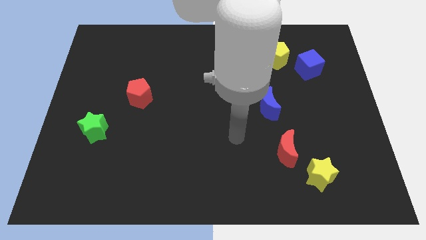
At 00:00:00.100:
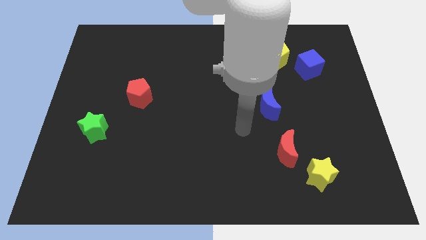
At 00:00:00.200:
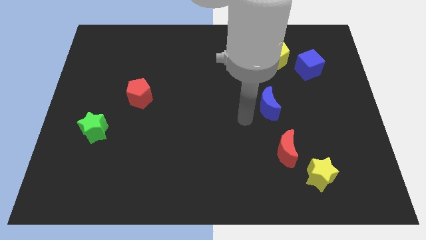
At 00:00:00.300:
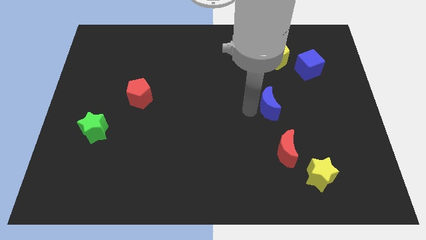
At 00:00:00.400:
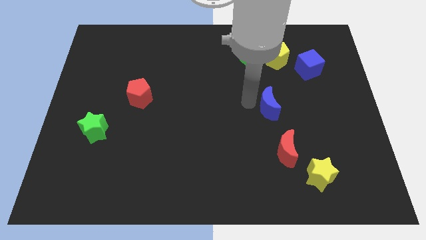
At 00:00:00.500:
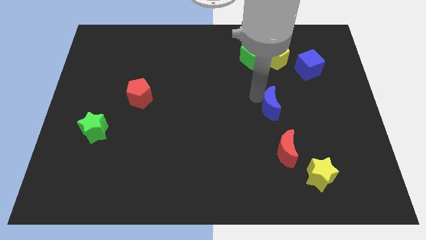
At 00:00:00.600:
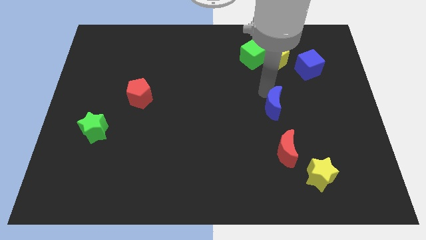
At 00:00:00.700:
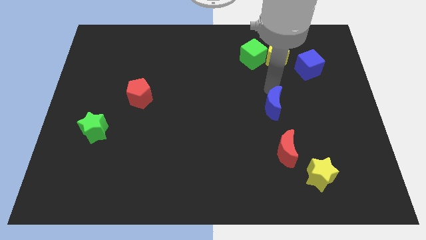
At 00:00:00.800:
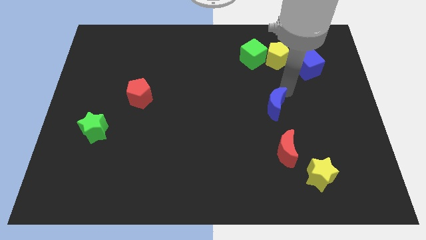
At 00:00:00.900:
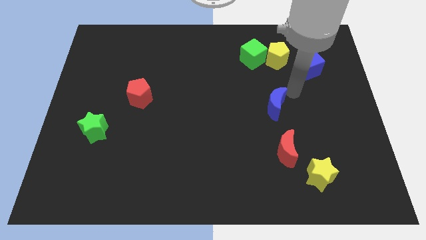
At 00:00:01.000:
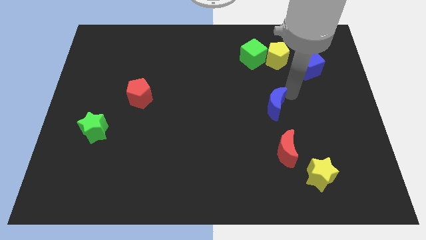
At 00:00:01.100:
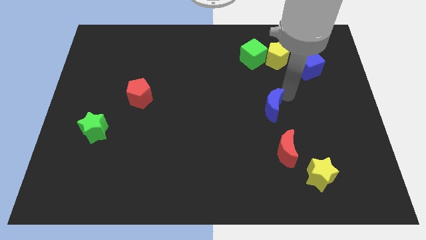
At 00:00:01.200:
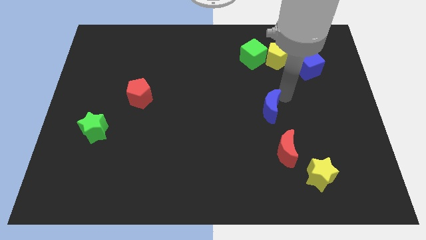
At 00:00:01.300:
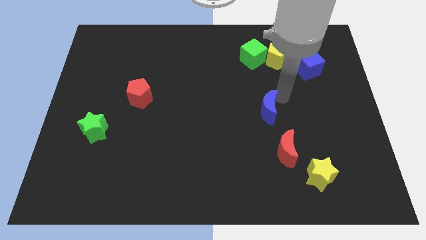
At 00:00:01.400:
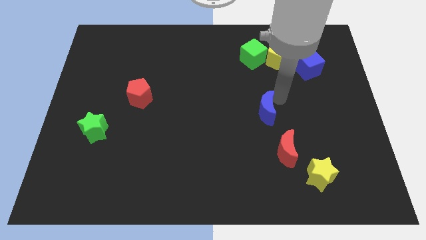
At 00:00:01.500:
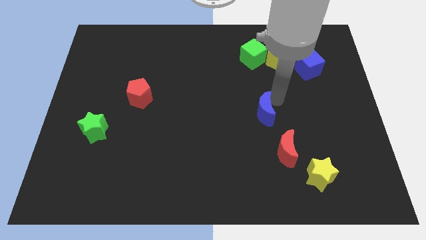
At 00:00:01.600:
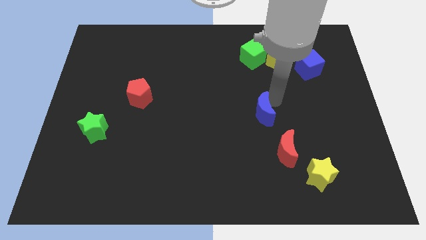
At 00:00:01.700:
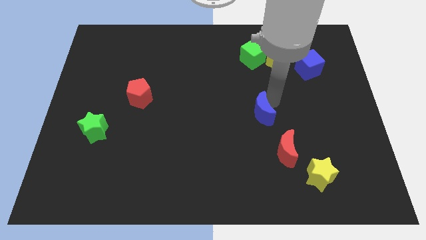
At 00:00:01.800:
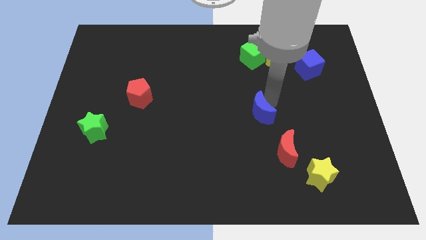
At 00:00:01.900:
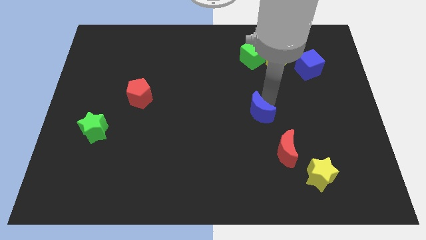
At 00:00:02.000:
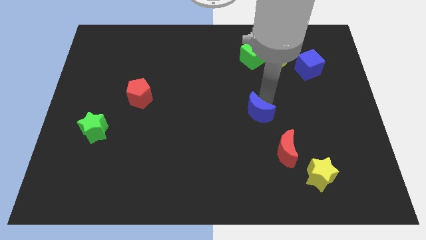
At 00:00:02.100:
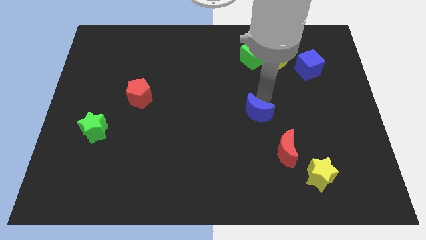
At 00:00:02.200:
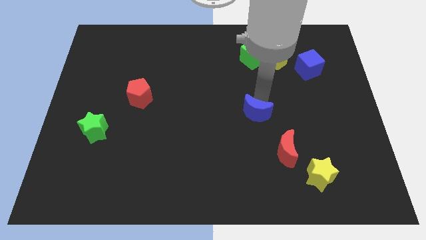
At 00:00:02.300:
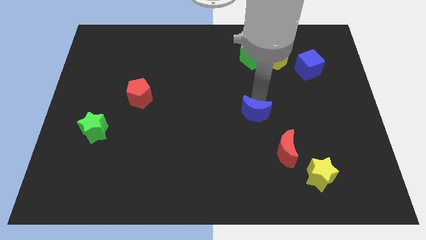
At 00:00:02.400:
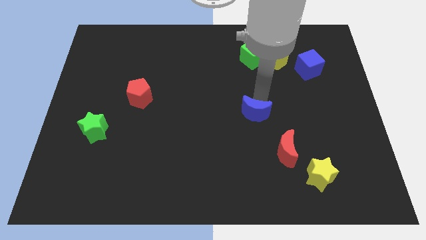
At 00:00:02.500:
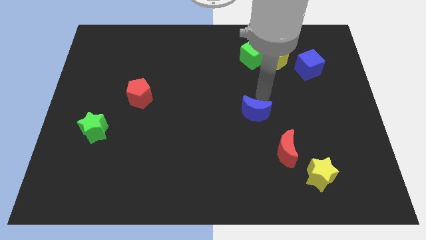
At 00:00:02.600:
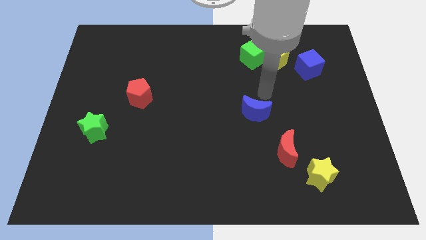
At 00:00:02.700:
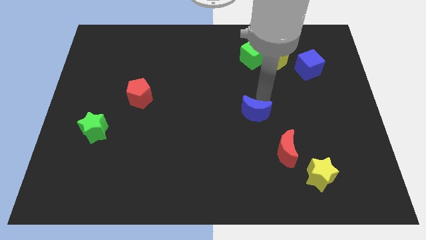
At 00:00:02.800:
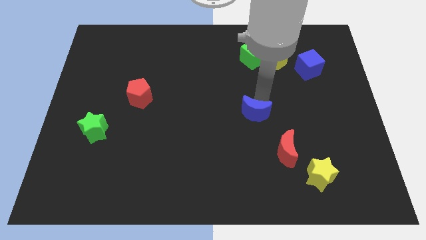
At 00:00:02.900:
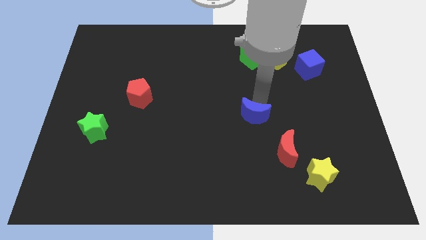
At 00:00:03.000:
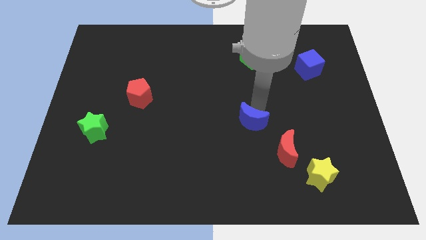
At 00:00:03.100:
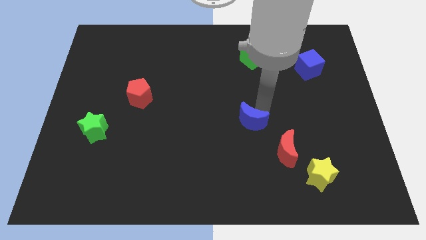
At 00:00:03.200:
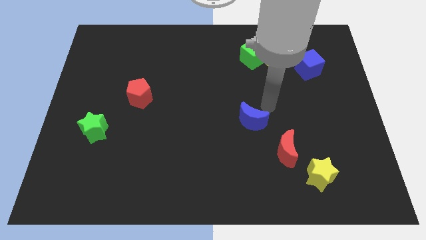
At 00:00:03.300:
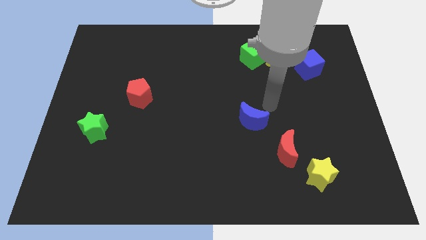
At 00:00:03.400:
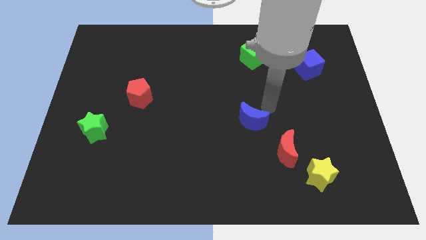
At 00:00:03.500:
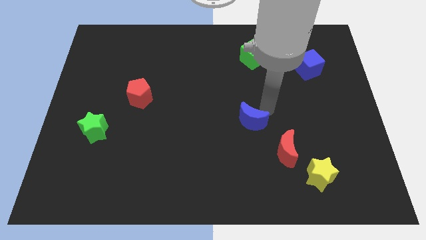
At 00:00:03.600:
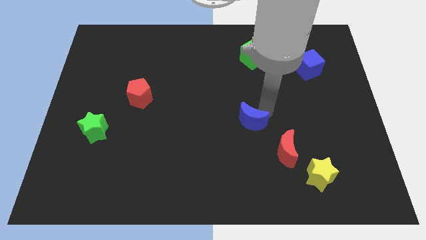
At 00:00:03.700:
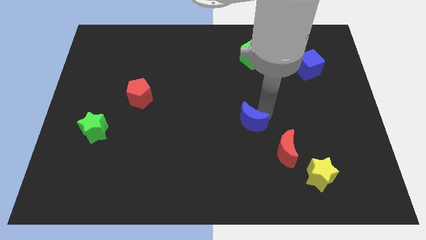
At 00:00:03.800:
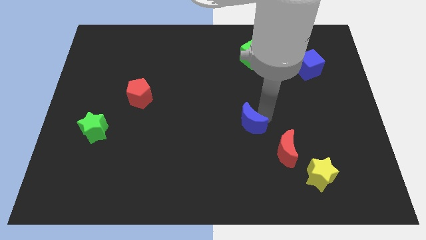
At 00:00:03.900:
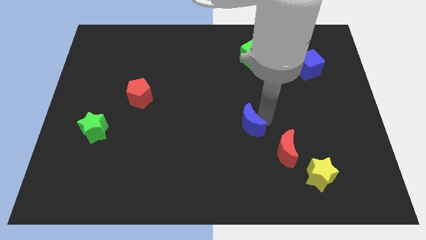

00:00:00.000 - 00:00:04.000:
push the blue moon downwards and then left a little bit

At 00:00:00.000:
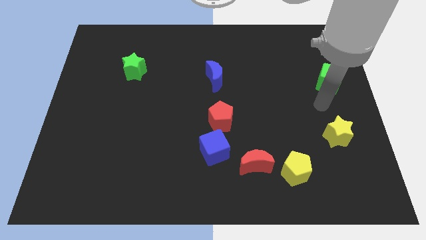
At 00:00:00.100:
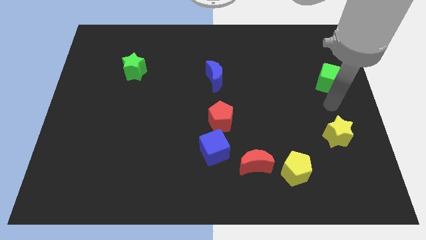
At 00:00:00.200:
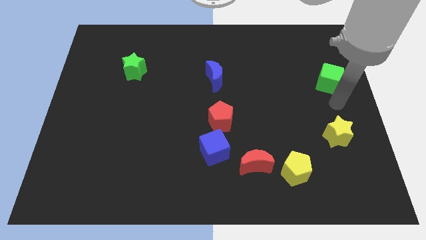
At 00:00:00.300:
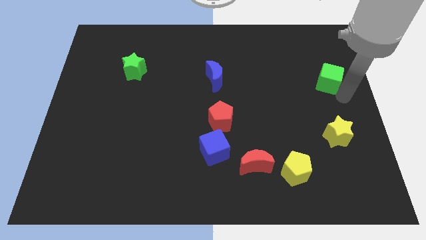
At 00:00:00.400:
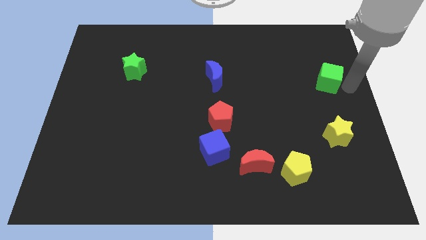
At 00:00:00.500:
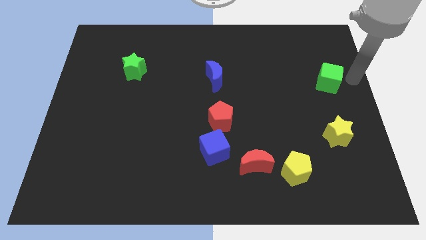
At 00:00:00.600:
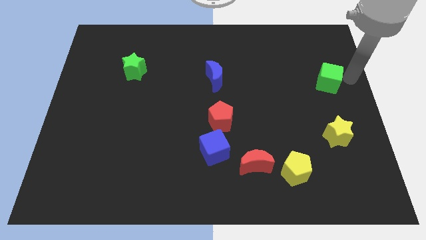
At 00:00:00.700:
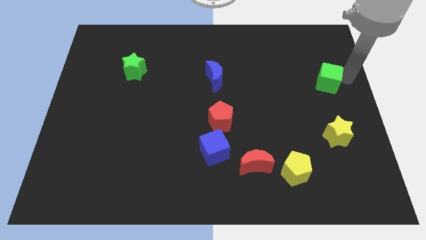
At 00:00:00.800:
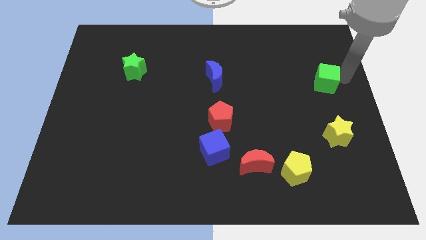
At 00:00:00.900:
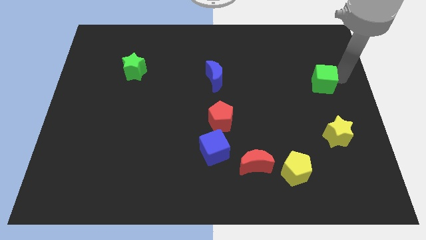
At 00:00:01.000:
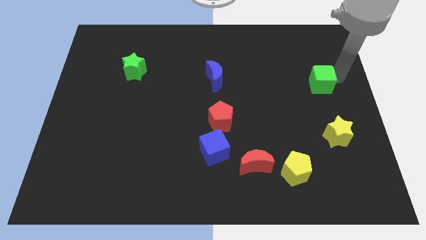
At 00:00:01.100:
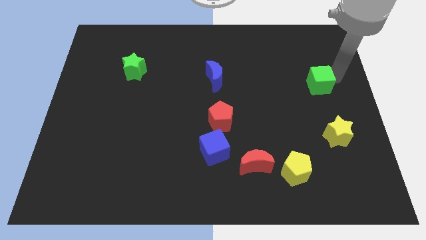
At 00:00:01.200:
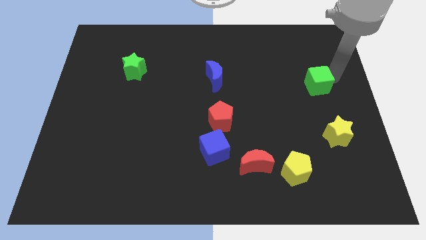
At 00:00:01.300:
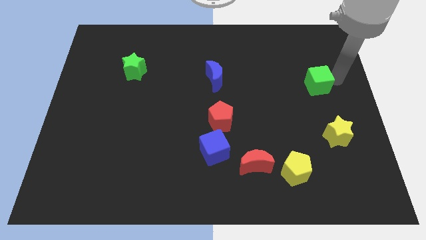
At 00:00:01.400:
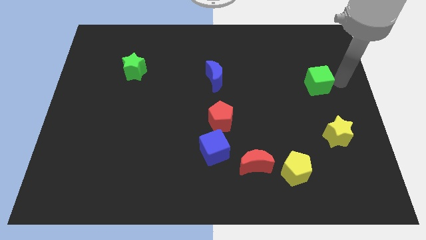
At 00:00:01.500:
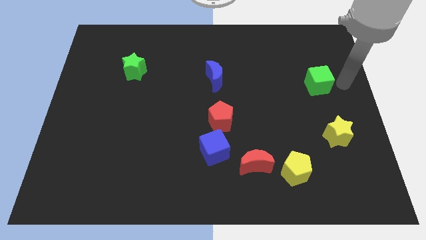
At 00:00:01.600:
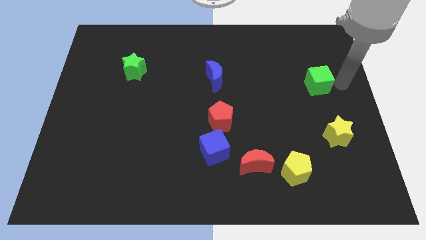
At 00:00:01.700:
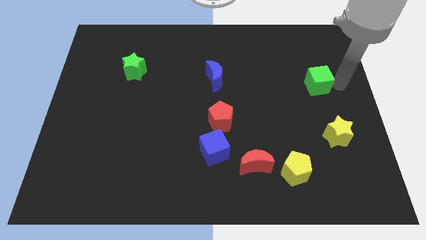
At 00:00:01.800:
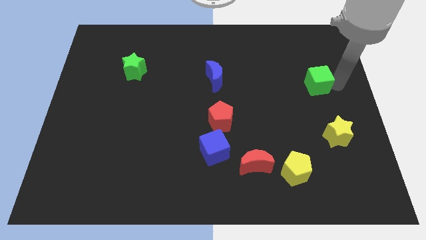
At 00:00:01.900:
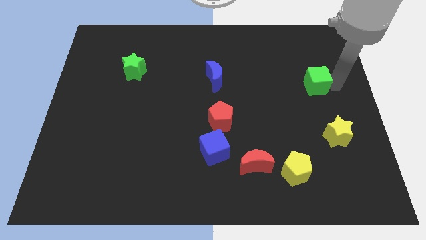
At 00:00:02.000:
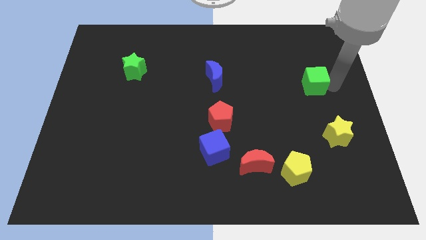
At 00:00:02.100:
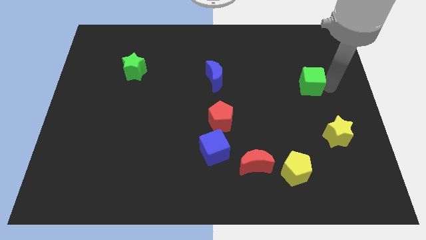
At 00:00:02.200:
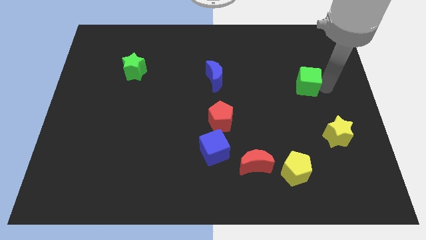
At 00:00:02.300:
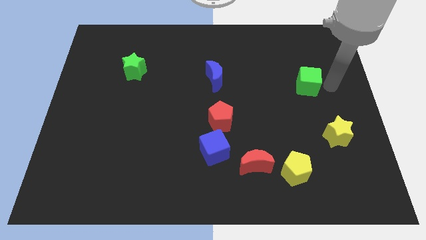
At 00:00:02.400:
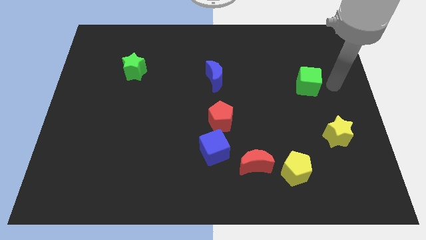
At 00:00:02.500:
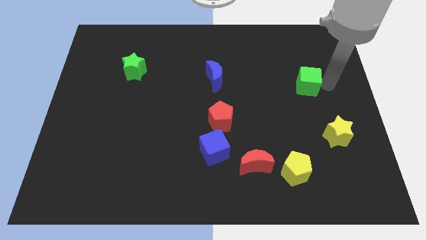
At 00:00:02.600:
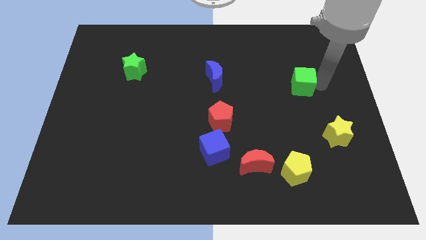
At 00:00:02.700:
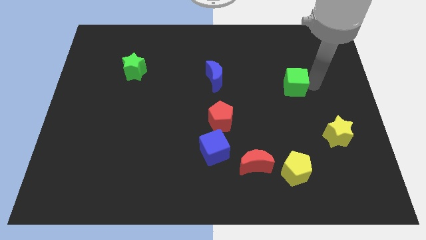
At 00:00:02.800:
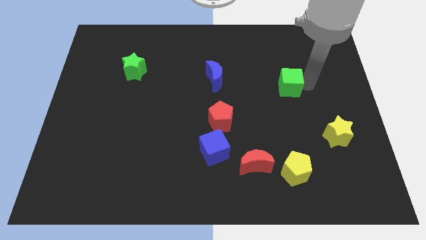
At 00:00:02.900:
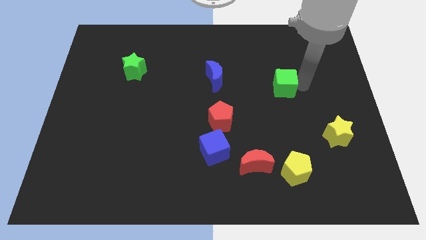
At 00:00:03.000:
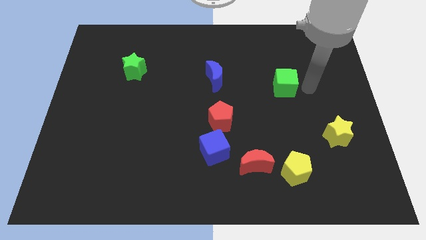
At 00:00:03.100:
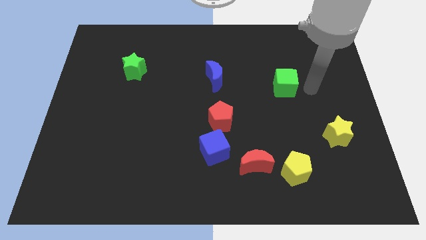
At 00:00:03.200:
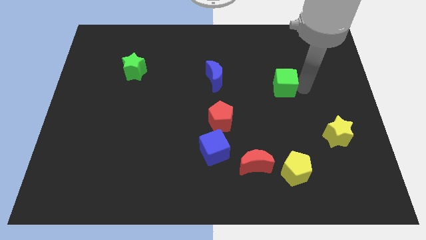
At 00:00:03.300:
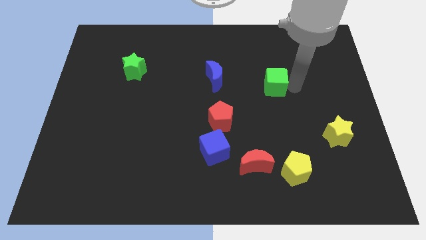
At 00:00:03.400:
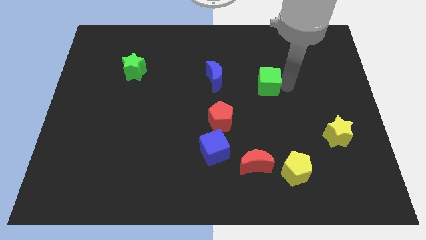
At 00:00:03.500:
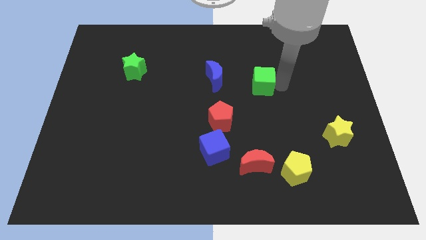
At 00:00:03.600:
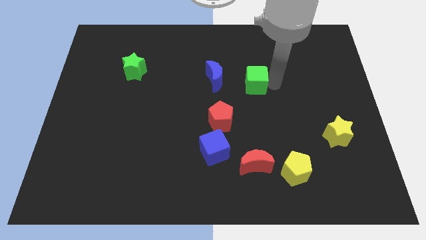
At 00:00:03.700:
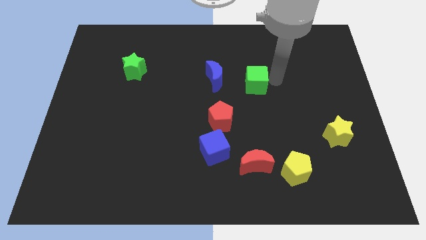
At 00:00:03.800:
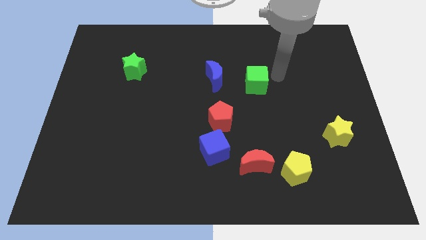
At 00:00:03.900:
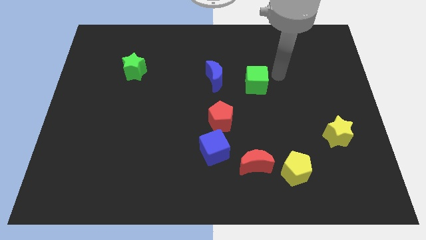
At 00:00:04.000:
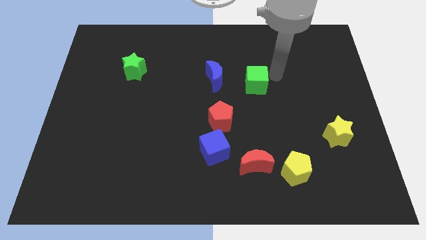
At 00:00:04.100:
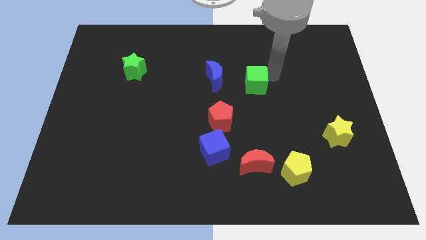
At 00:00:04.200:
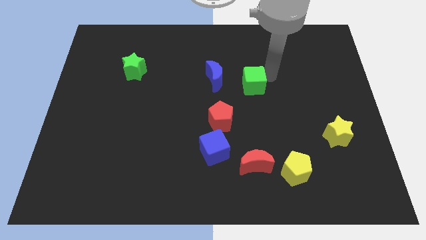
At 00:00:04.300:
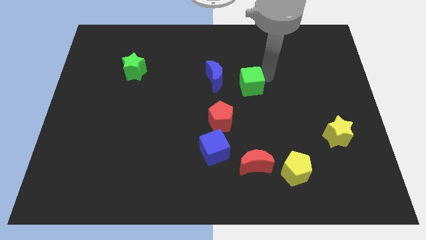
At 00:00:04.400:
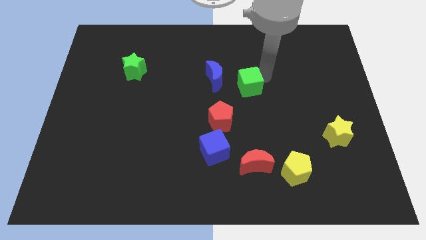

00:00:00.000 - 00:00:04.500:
push the green cube to the left
